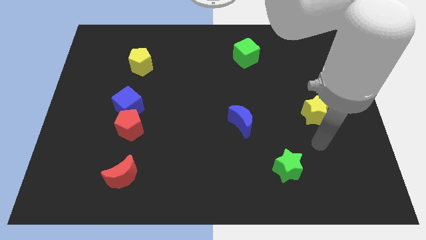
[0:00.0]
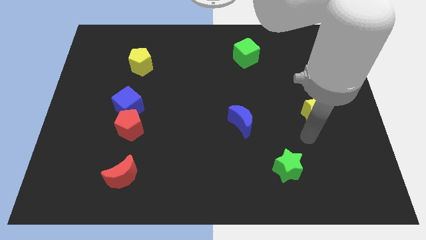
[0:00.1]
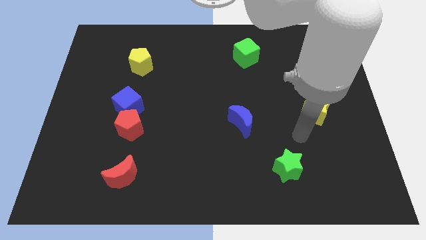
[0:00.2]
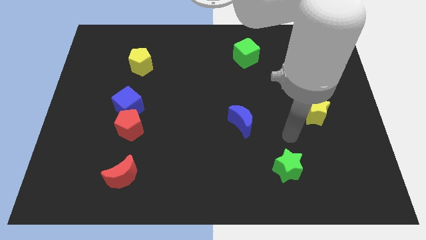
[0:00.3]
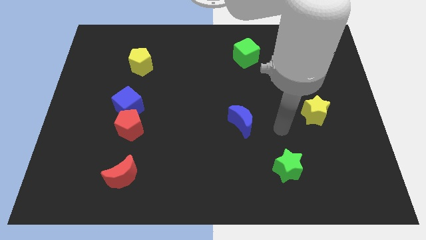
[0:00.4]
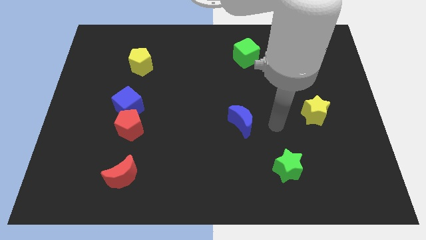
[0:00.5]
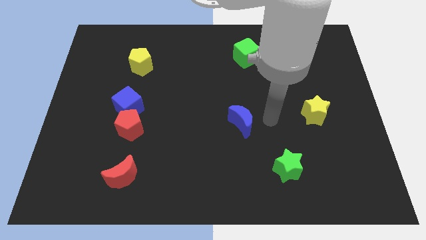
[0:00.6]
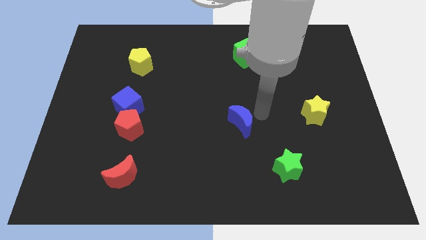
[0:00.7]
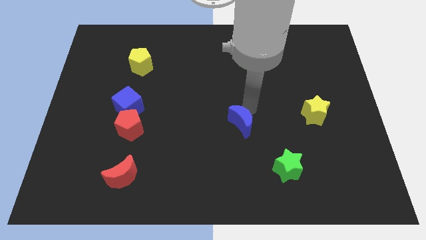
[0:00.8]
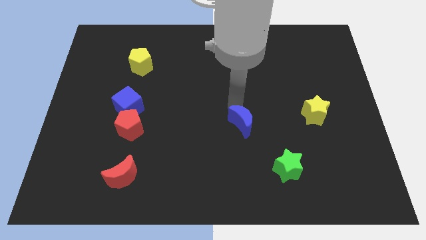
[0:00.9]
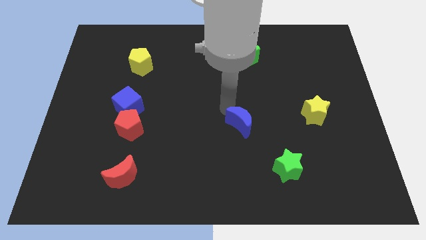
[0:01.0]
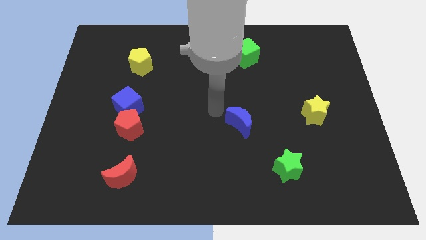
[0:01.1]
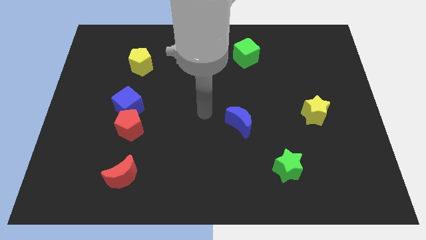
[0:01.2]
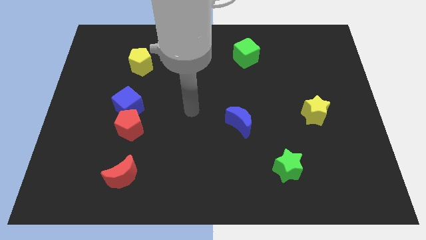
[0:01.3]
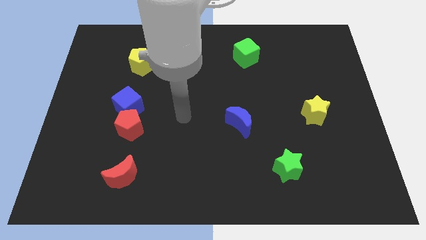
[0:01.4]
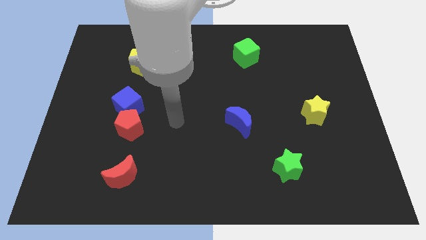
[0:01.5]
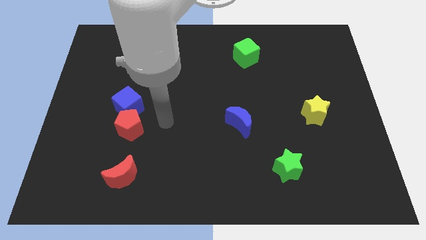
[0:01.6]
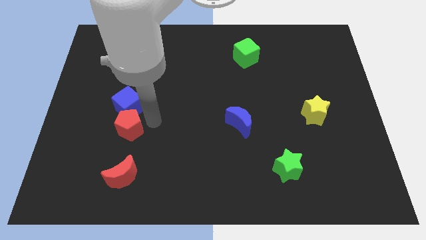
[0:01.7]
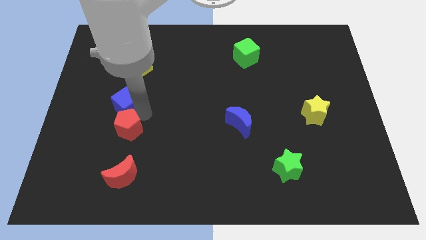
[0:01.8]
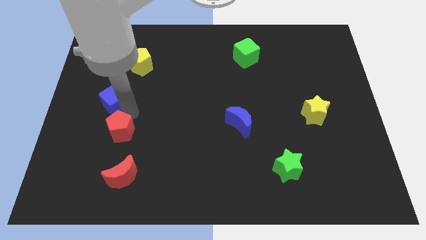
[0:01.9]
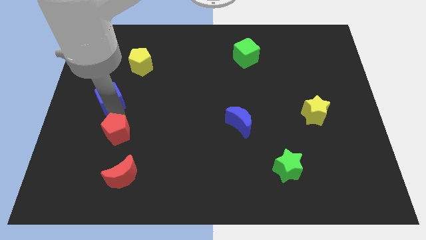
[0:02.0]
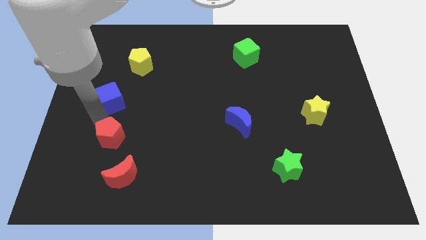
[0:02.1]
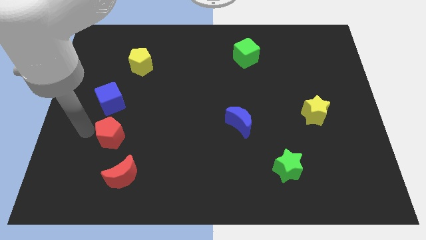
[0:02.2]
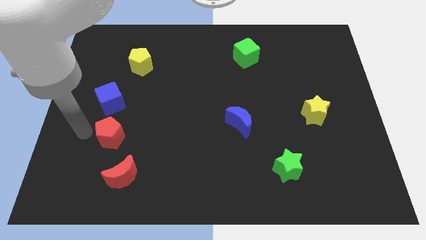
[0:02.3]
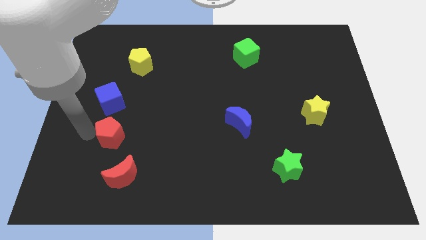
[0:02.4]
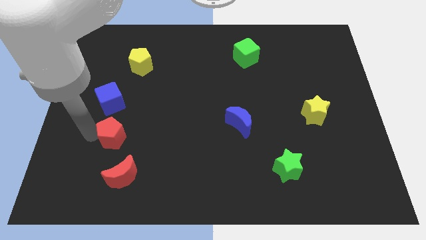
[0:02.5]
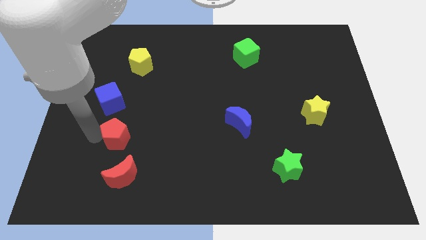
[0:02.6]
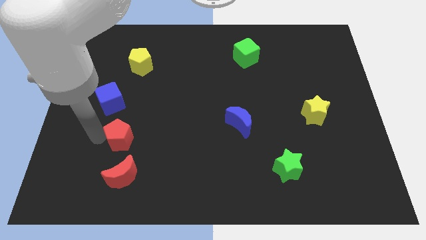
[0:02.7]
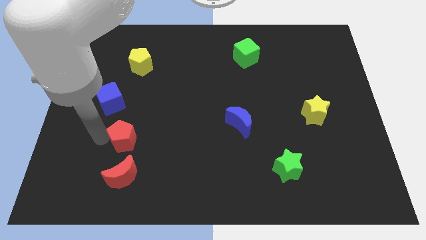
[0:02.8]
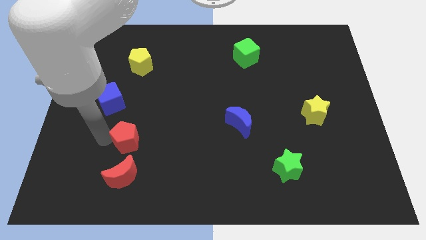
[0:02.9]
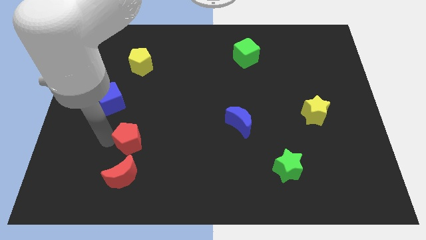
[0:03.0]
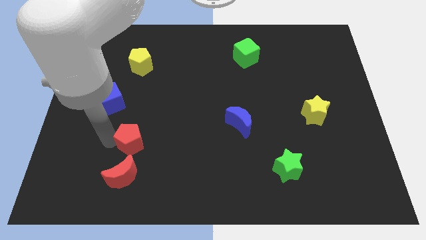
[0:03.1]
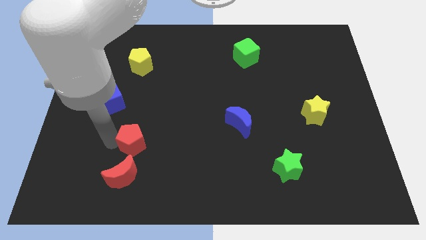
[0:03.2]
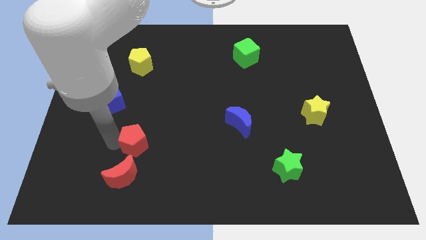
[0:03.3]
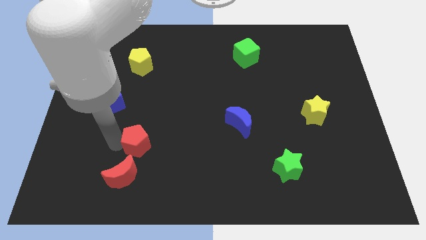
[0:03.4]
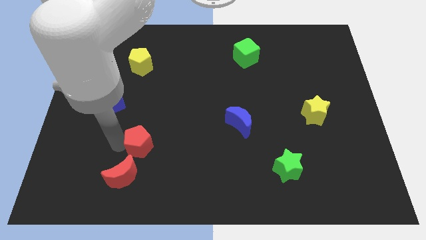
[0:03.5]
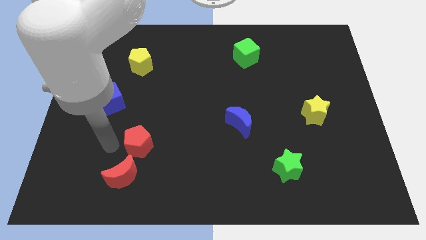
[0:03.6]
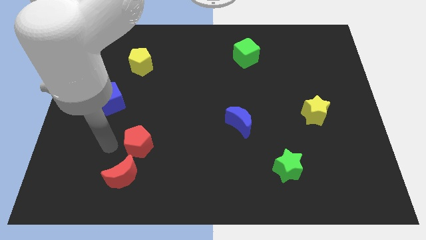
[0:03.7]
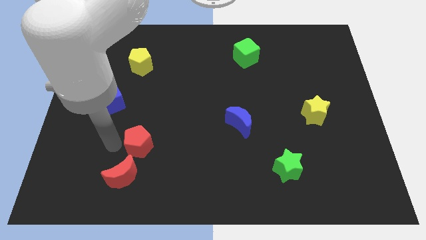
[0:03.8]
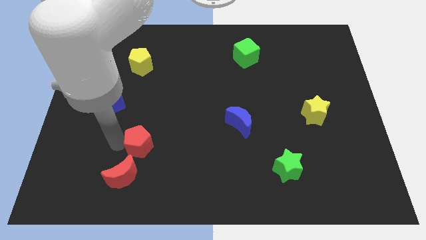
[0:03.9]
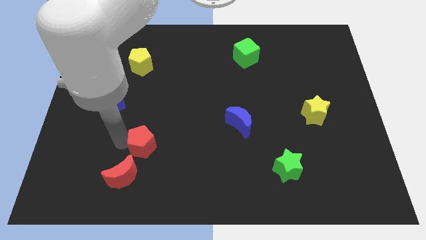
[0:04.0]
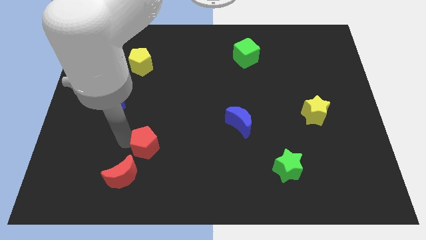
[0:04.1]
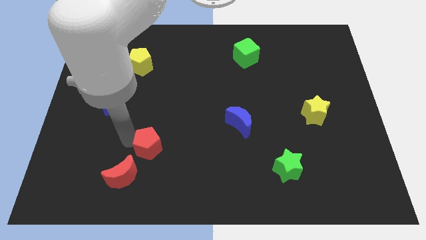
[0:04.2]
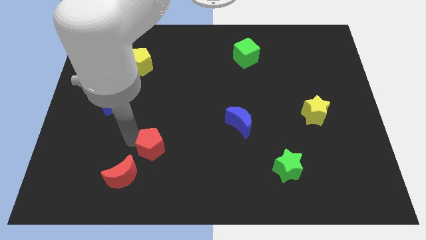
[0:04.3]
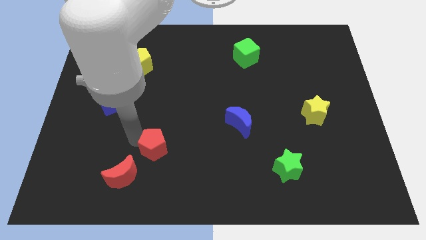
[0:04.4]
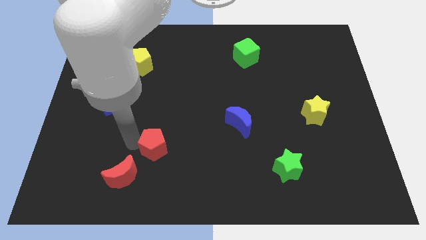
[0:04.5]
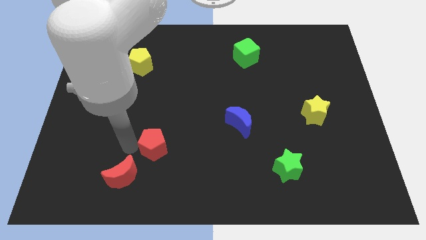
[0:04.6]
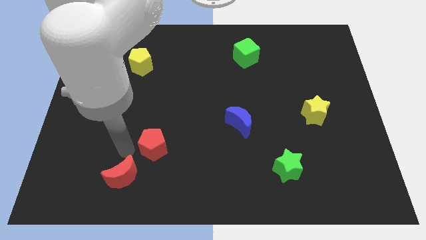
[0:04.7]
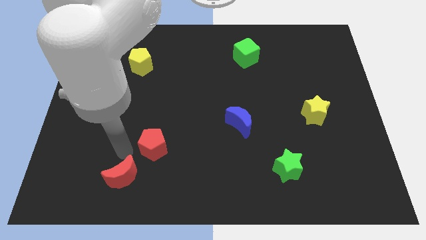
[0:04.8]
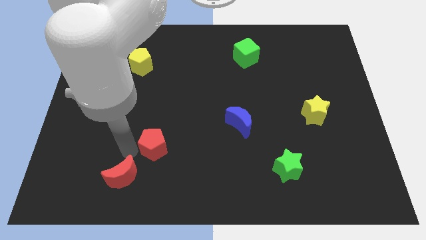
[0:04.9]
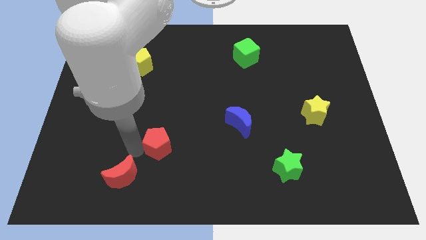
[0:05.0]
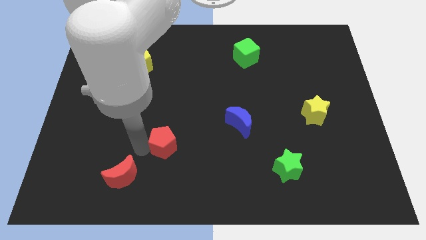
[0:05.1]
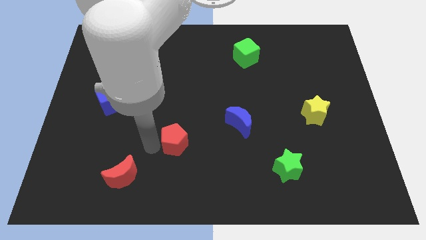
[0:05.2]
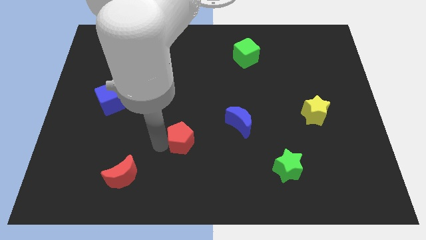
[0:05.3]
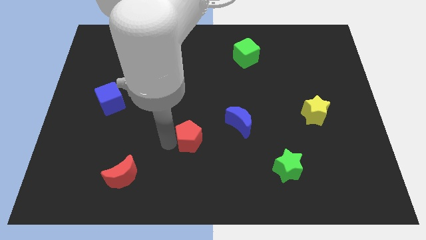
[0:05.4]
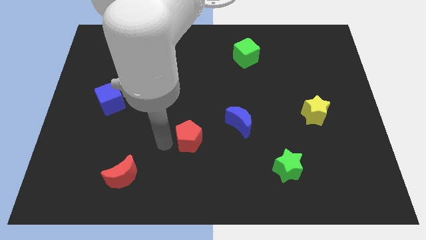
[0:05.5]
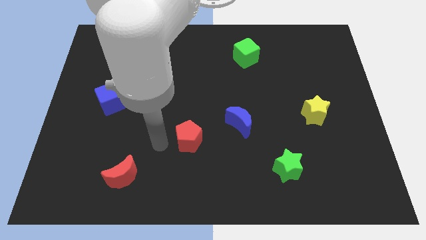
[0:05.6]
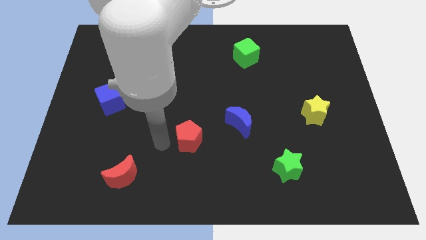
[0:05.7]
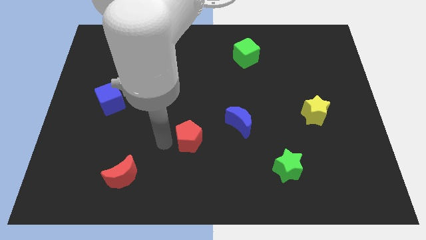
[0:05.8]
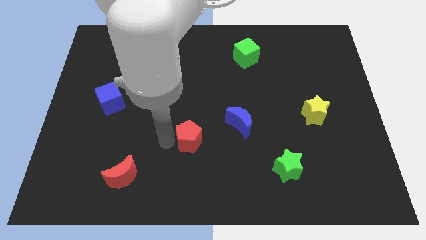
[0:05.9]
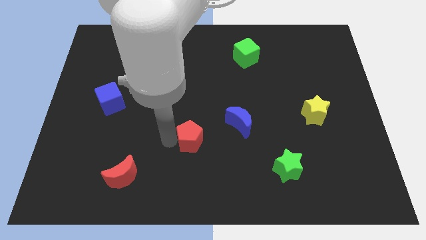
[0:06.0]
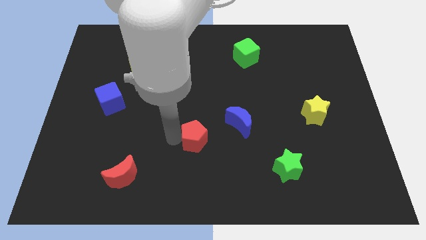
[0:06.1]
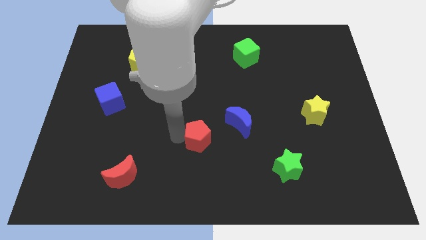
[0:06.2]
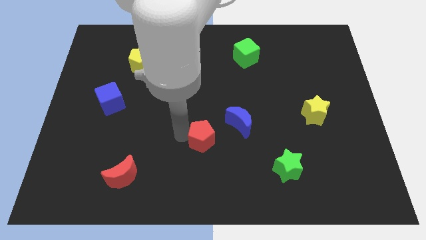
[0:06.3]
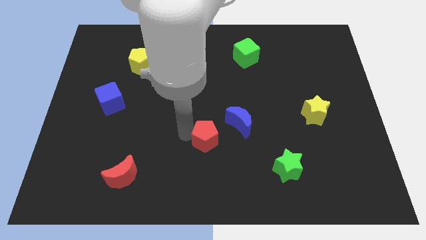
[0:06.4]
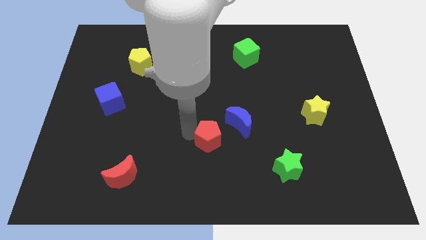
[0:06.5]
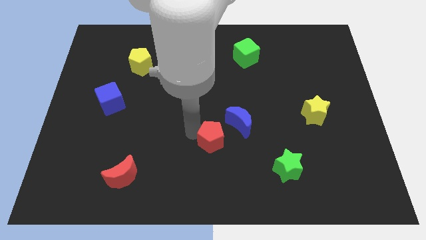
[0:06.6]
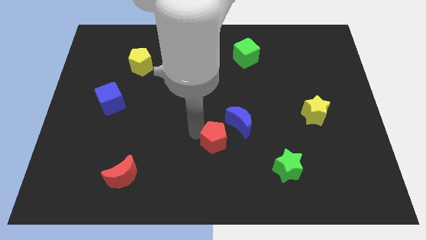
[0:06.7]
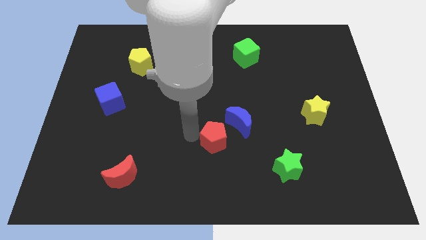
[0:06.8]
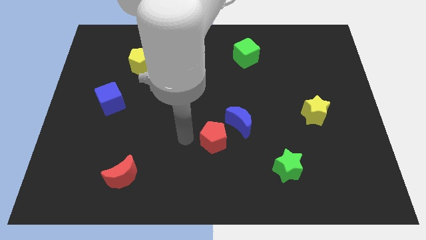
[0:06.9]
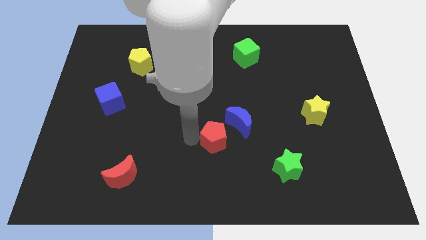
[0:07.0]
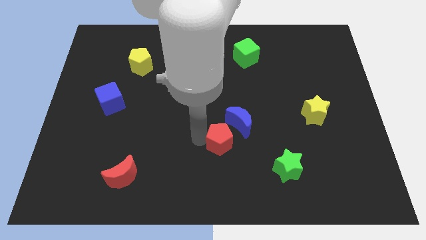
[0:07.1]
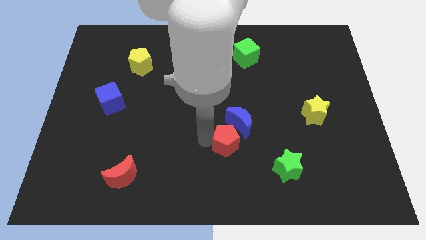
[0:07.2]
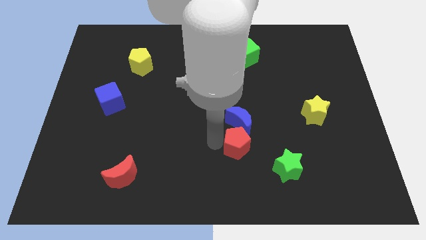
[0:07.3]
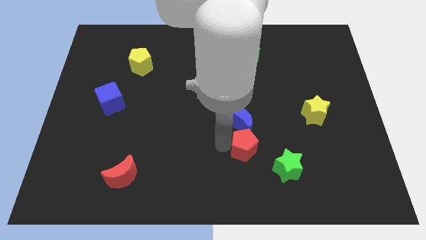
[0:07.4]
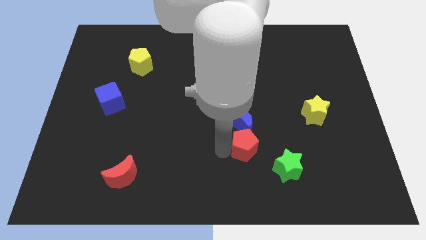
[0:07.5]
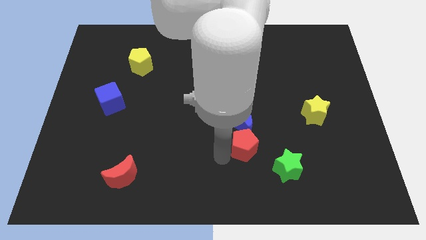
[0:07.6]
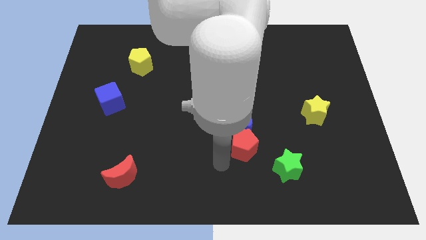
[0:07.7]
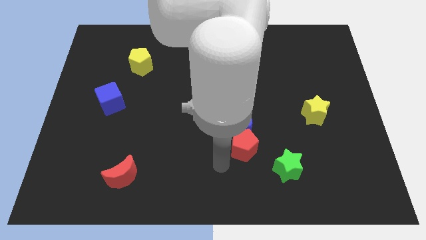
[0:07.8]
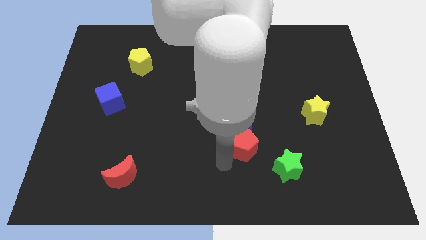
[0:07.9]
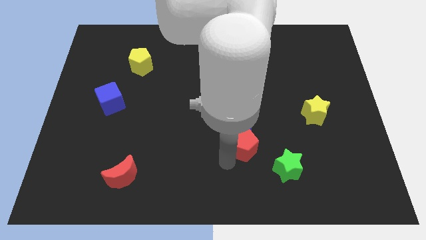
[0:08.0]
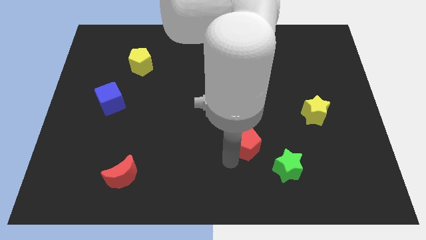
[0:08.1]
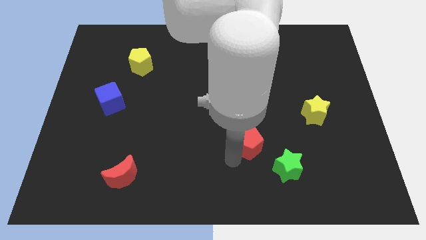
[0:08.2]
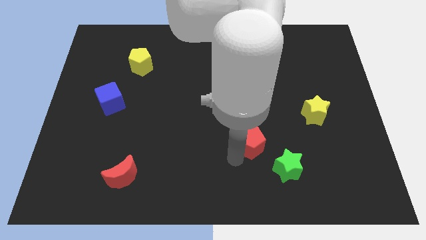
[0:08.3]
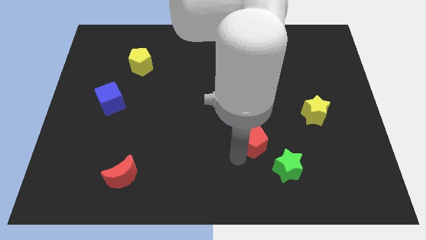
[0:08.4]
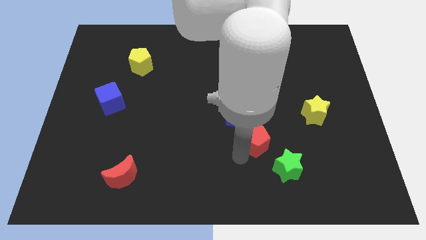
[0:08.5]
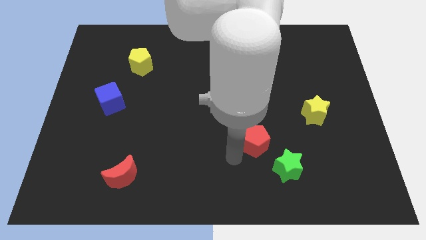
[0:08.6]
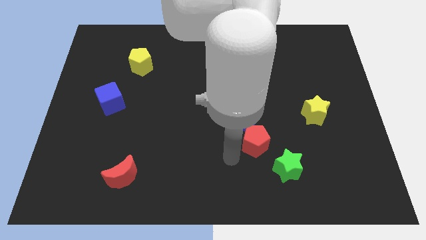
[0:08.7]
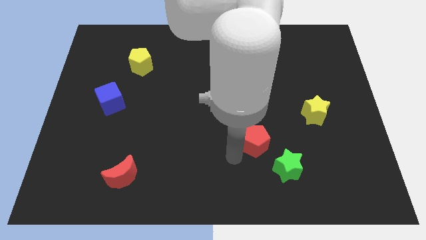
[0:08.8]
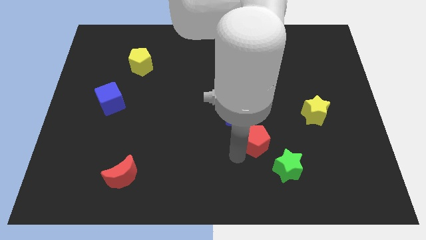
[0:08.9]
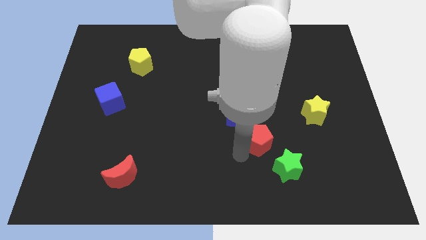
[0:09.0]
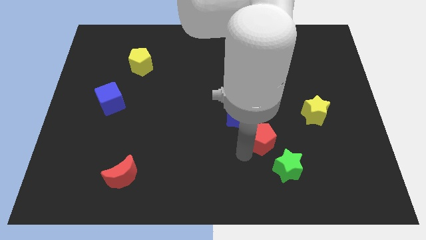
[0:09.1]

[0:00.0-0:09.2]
push the red pentagon to the top of the green star
